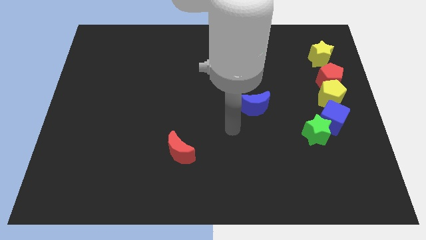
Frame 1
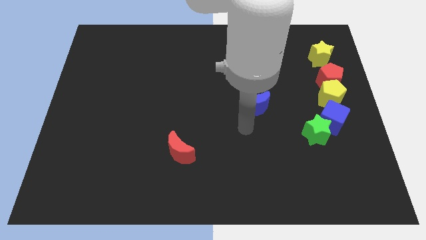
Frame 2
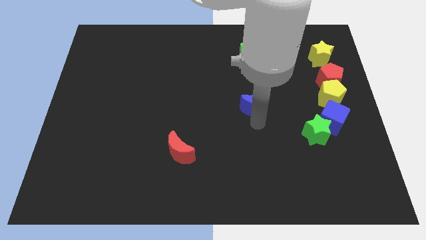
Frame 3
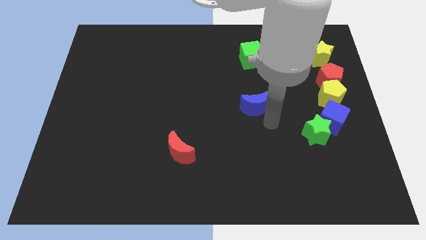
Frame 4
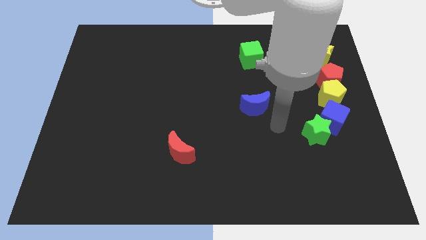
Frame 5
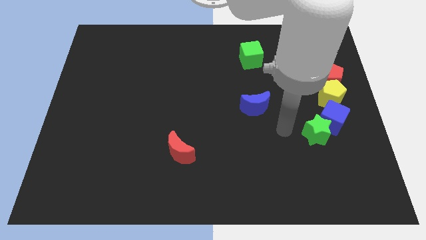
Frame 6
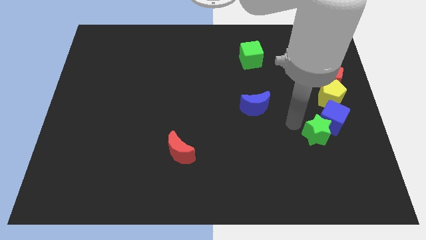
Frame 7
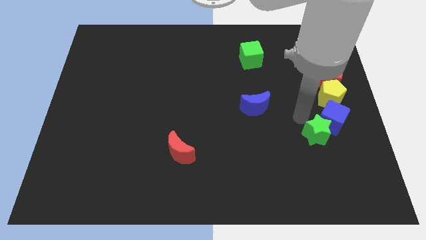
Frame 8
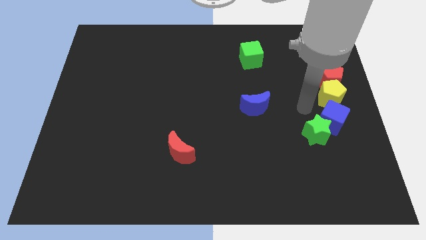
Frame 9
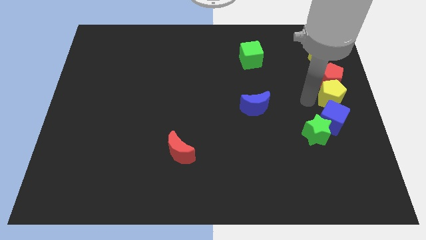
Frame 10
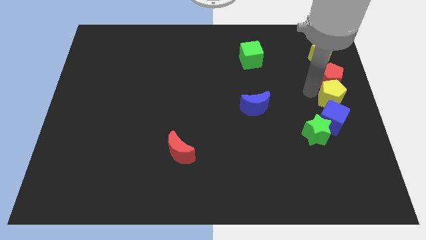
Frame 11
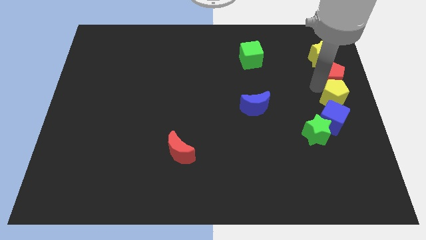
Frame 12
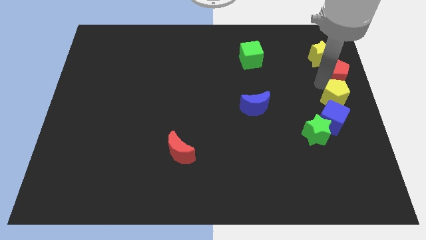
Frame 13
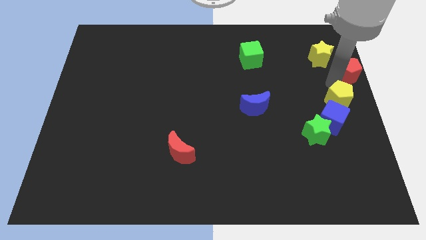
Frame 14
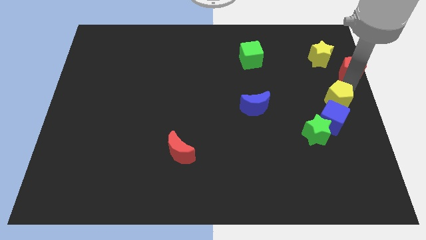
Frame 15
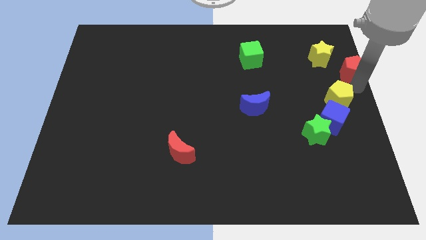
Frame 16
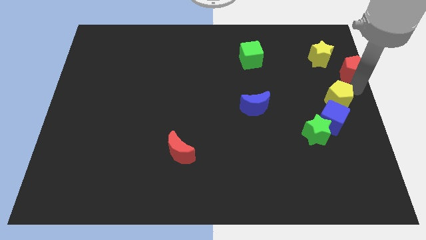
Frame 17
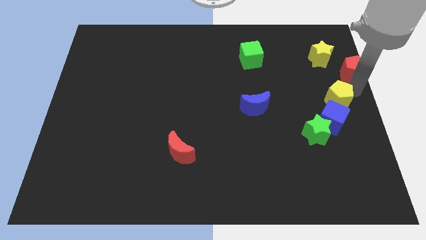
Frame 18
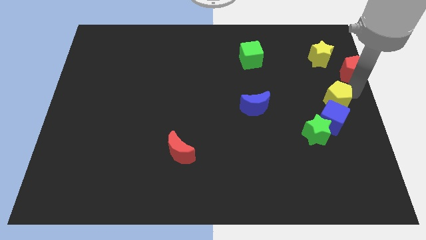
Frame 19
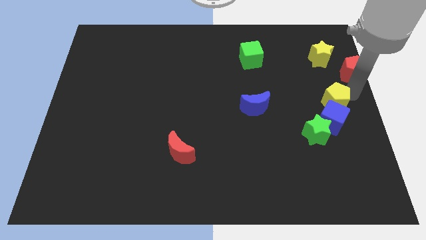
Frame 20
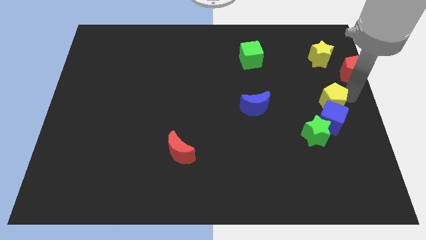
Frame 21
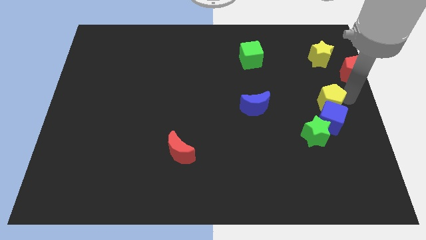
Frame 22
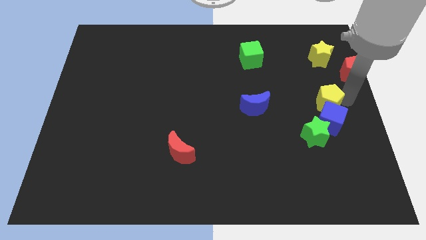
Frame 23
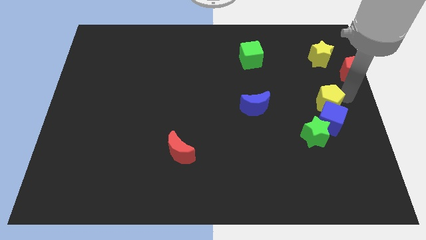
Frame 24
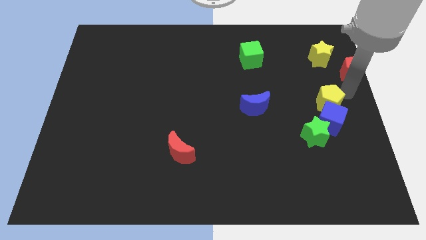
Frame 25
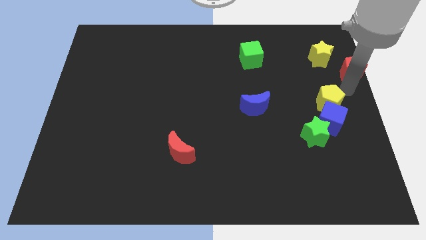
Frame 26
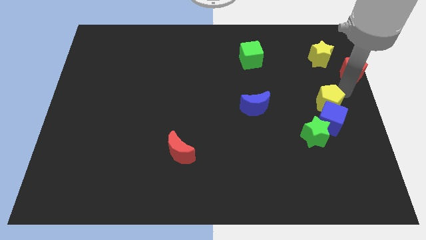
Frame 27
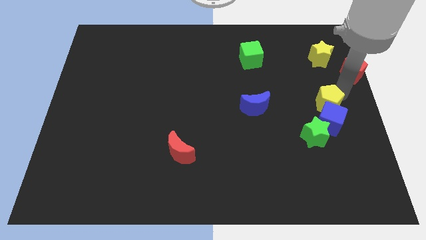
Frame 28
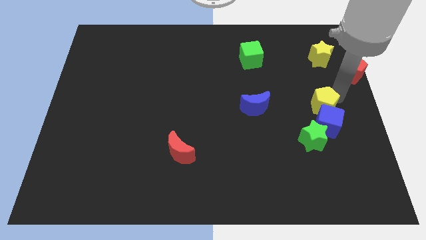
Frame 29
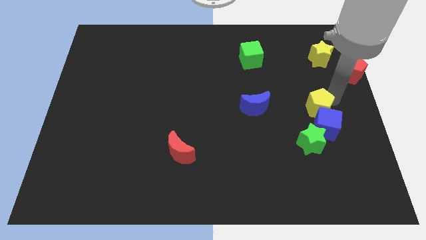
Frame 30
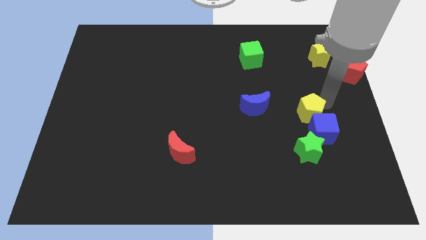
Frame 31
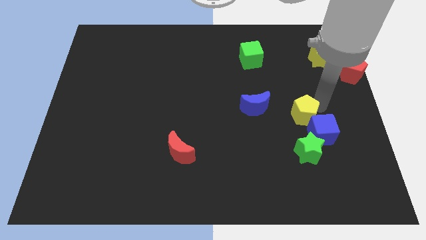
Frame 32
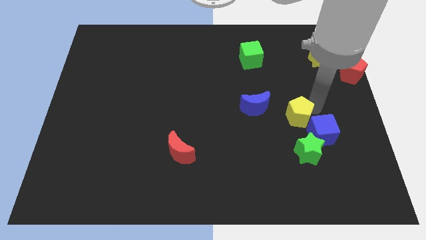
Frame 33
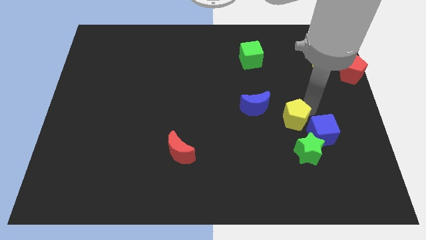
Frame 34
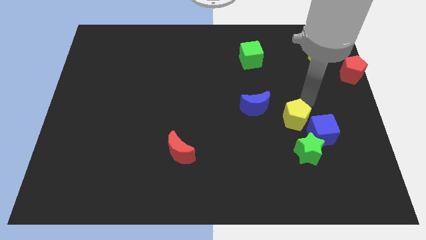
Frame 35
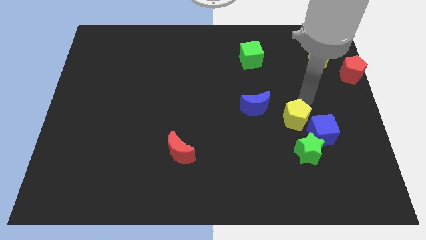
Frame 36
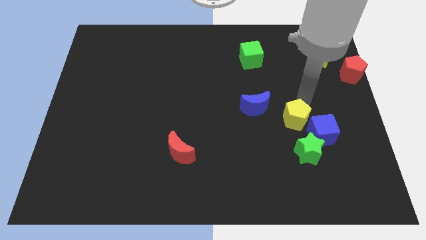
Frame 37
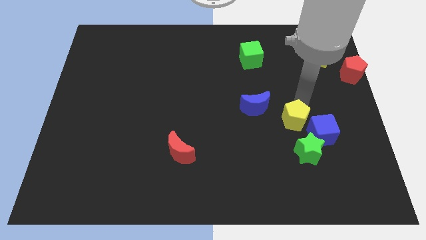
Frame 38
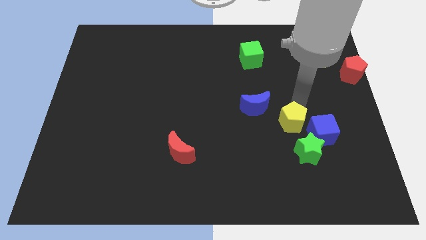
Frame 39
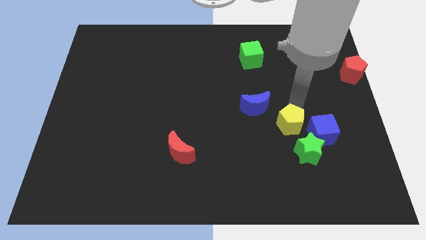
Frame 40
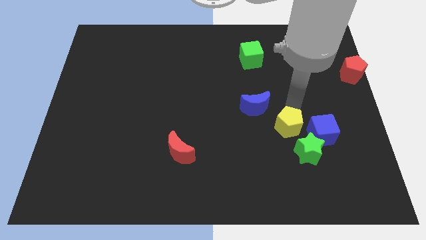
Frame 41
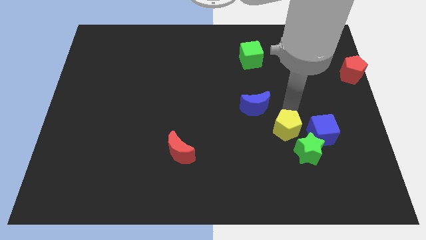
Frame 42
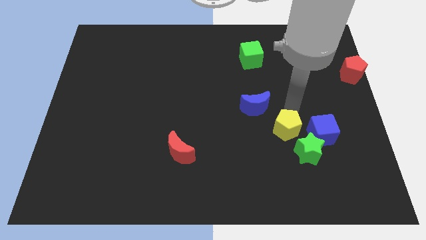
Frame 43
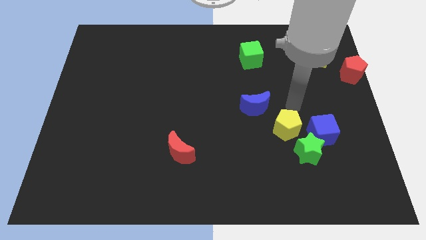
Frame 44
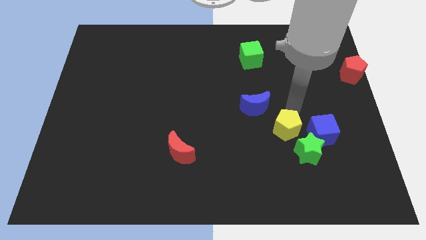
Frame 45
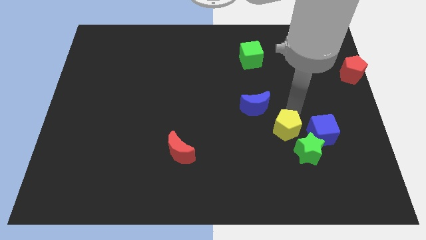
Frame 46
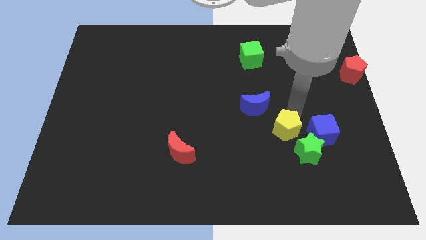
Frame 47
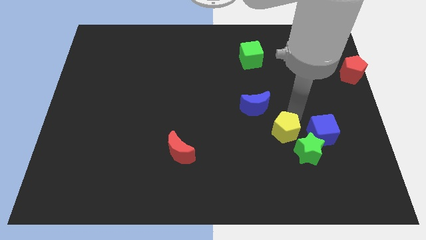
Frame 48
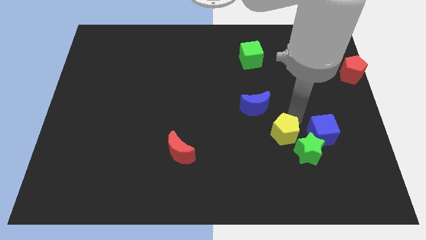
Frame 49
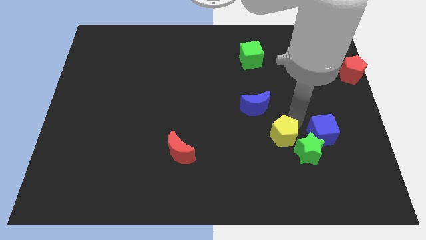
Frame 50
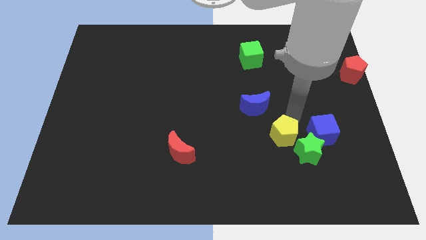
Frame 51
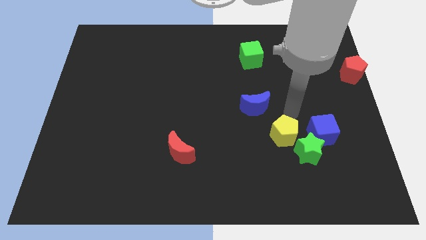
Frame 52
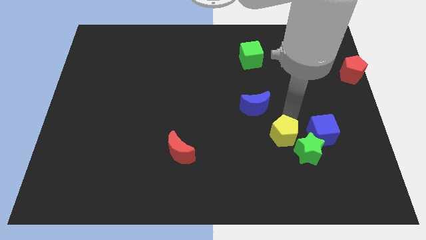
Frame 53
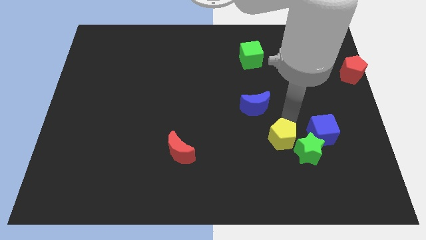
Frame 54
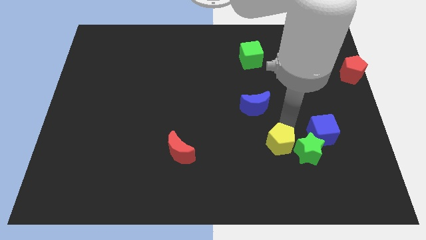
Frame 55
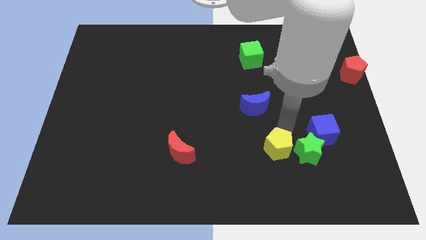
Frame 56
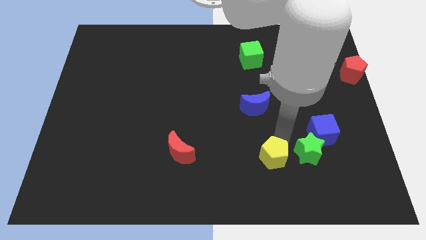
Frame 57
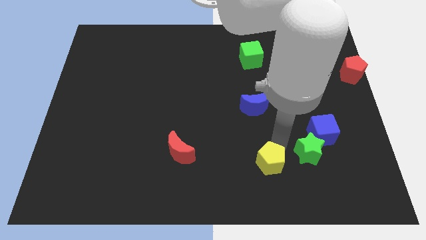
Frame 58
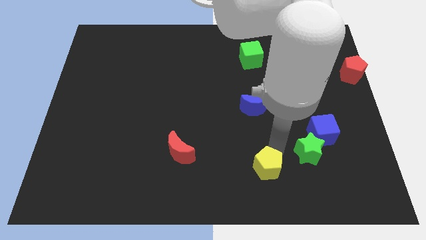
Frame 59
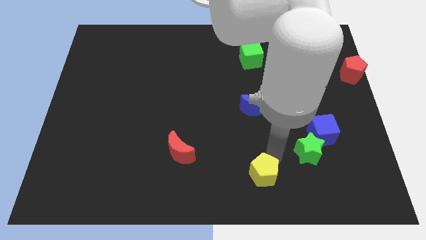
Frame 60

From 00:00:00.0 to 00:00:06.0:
put the yellow pentagon to the bottom
